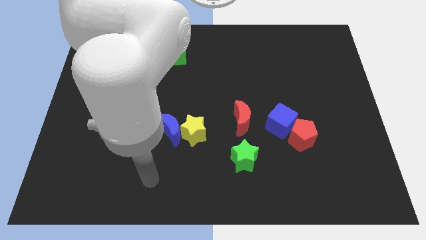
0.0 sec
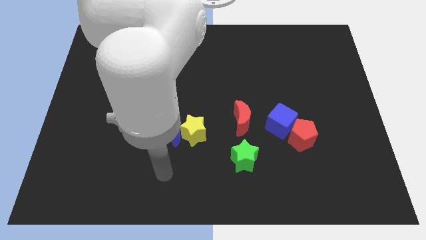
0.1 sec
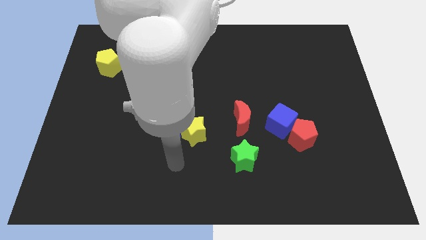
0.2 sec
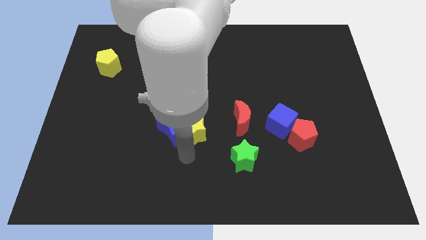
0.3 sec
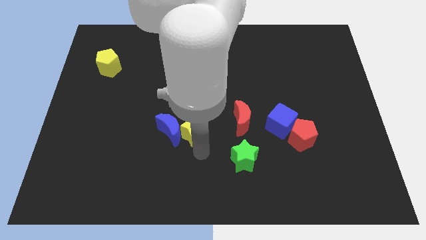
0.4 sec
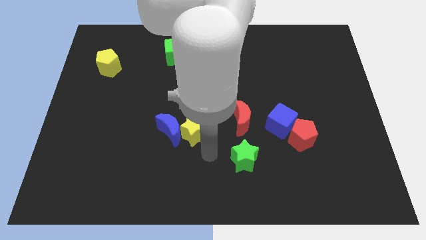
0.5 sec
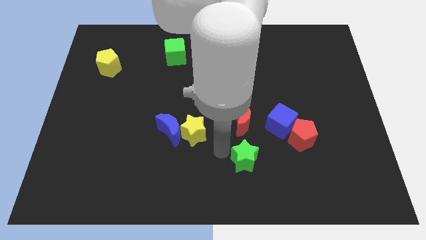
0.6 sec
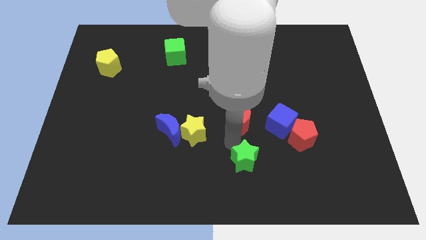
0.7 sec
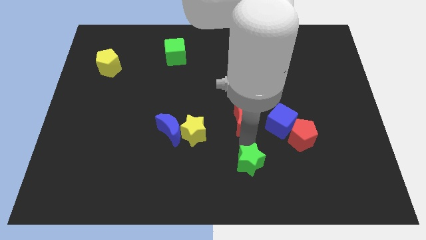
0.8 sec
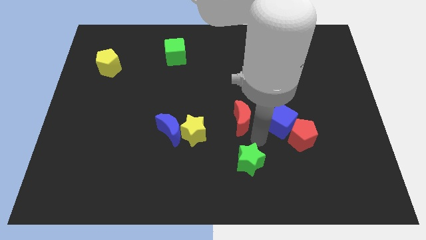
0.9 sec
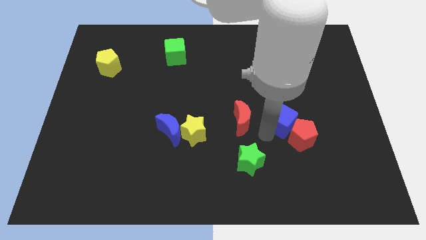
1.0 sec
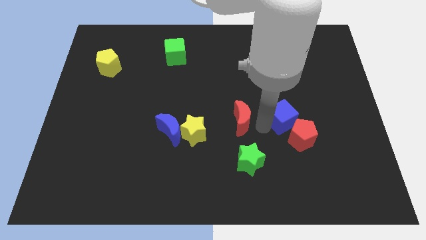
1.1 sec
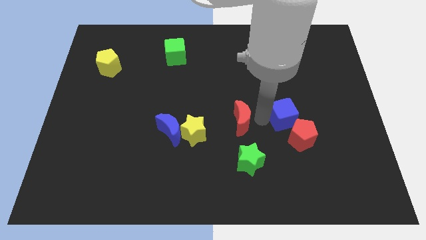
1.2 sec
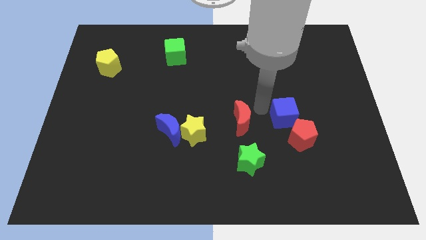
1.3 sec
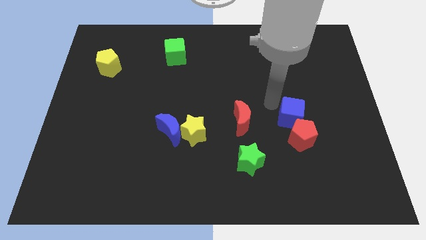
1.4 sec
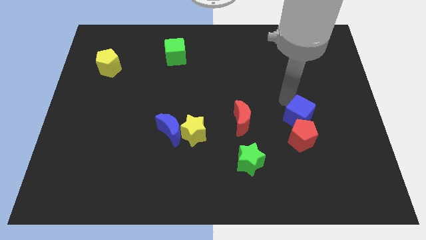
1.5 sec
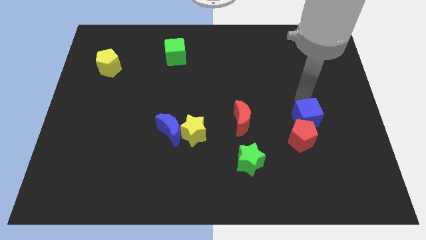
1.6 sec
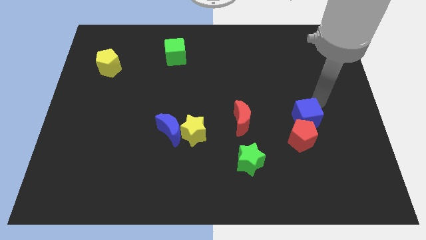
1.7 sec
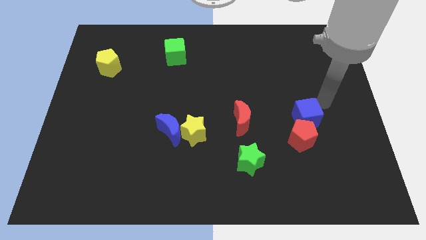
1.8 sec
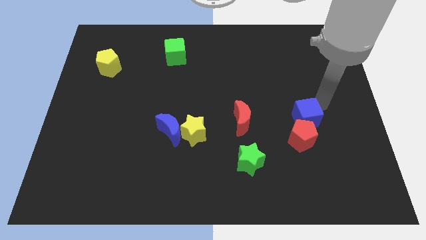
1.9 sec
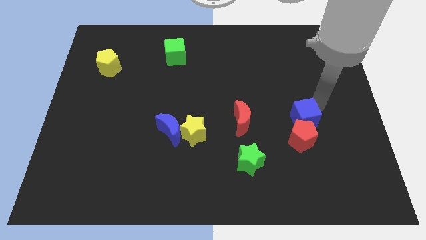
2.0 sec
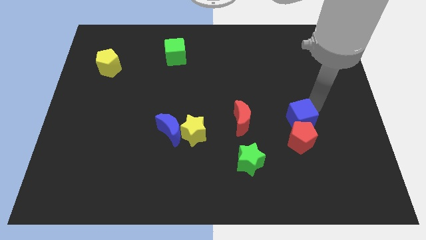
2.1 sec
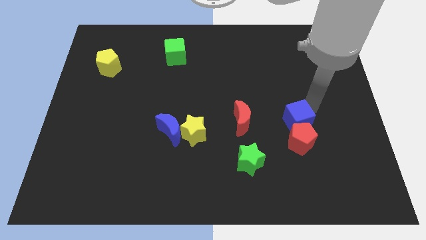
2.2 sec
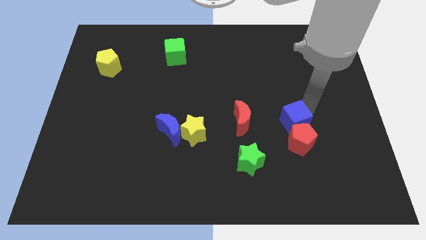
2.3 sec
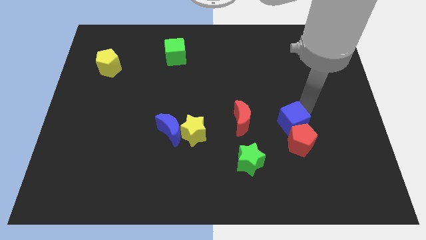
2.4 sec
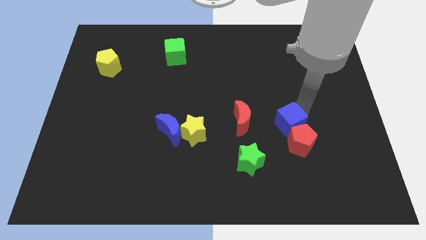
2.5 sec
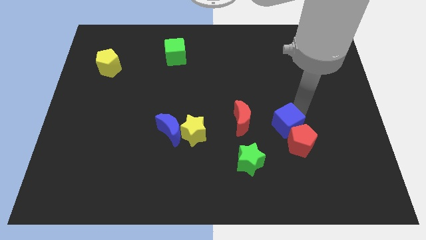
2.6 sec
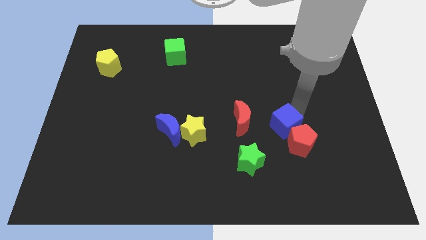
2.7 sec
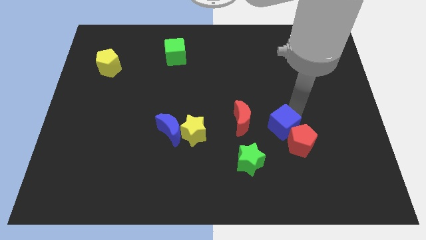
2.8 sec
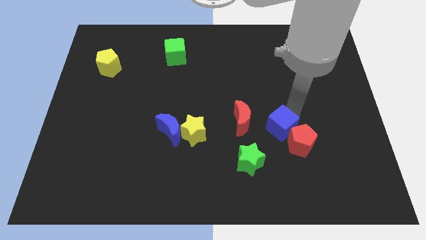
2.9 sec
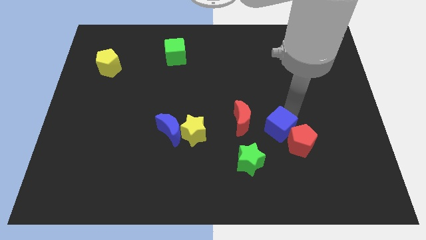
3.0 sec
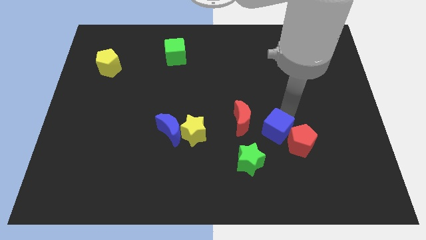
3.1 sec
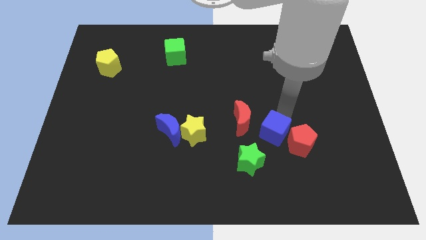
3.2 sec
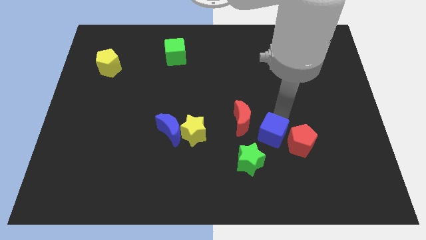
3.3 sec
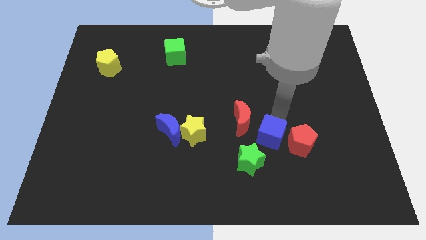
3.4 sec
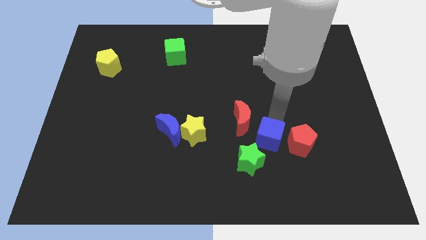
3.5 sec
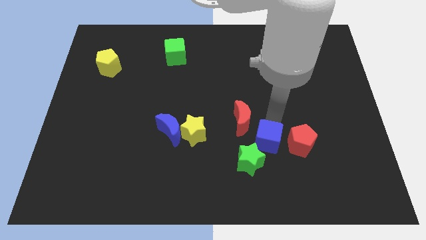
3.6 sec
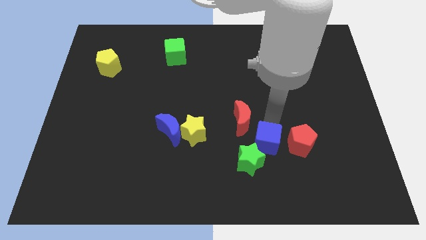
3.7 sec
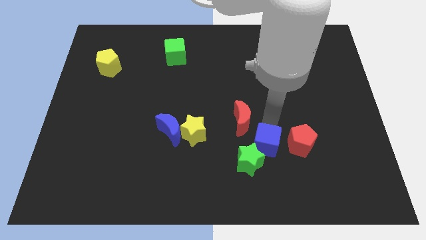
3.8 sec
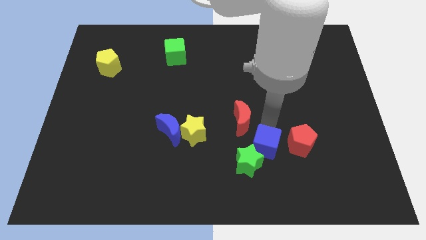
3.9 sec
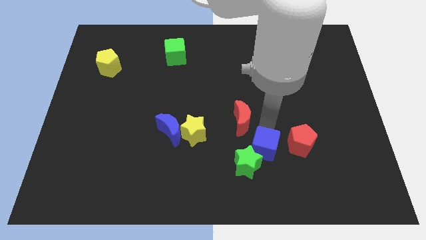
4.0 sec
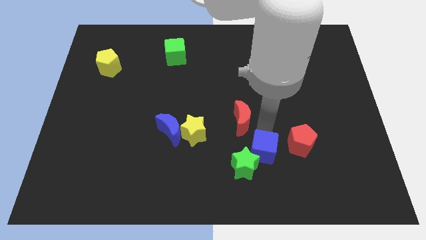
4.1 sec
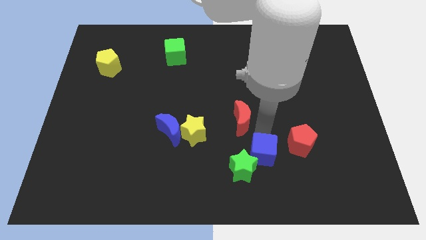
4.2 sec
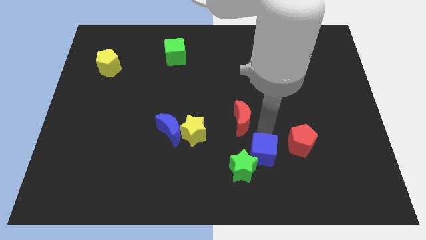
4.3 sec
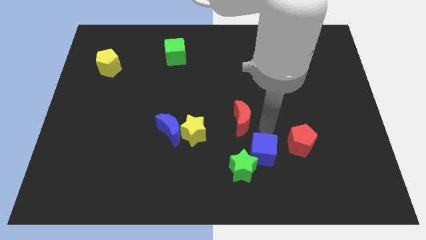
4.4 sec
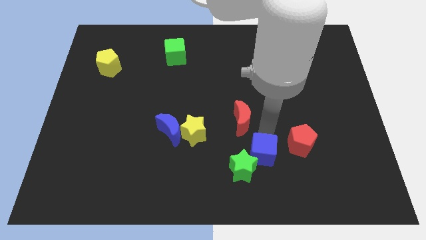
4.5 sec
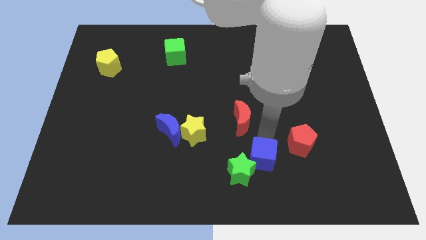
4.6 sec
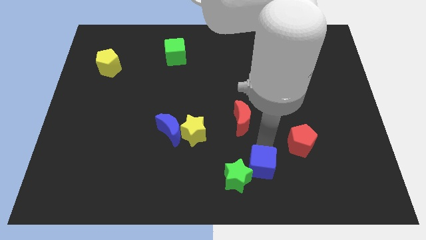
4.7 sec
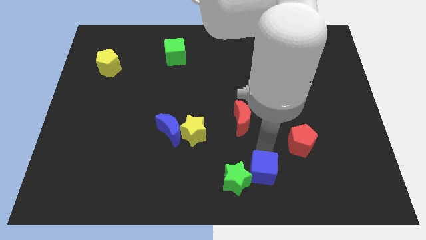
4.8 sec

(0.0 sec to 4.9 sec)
move the blue cube to the bottom side

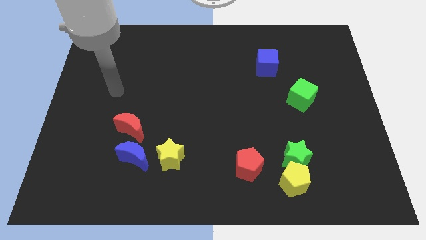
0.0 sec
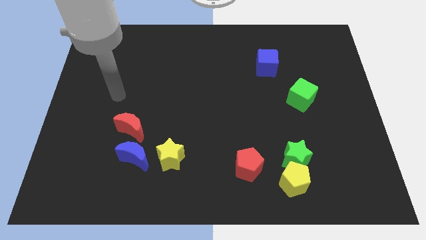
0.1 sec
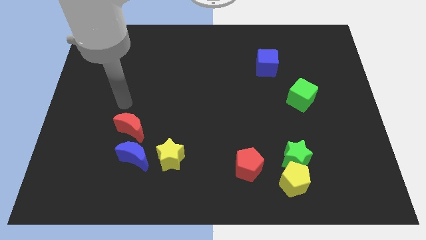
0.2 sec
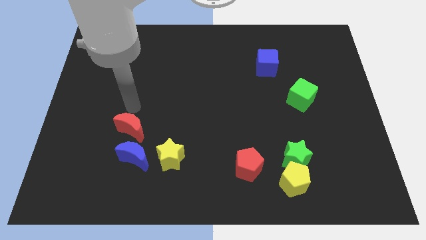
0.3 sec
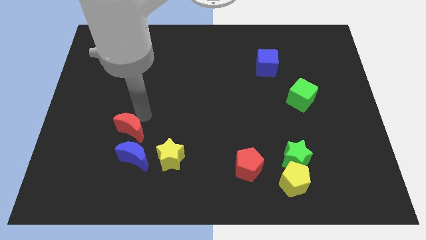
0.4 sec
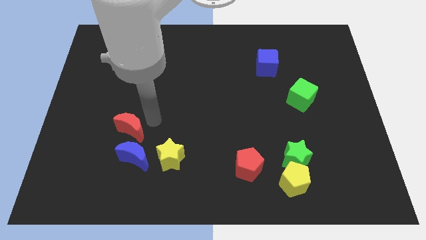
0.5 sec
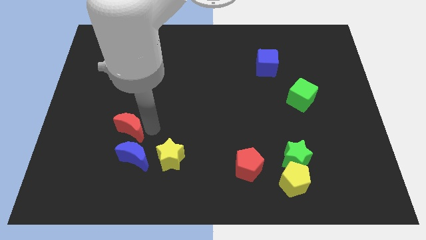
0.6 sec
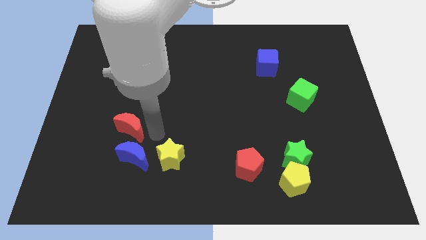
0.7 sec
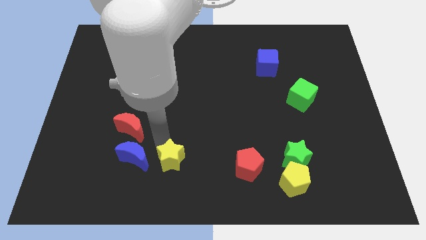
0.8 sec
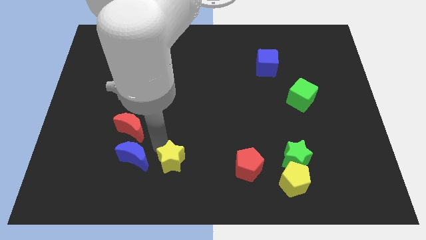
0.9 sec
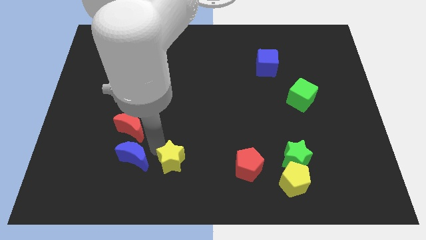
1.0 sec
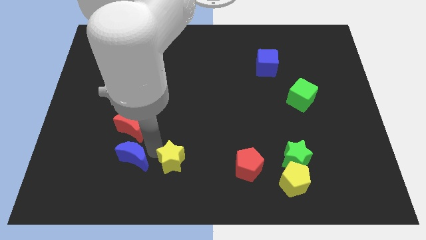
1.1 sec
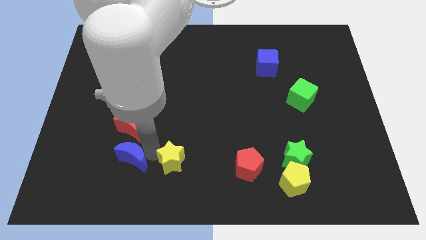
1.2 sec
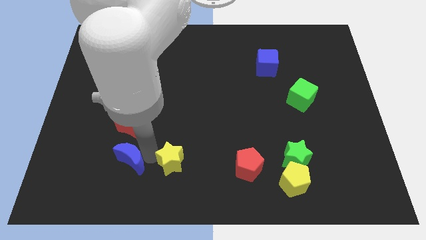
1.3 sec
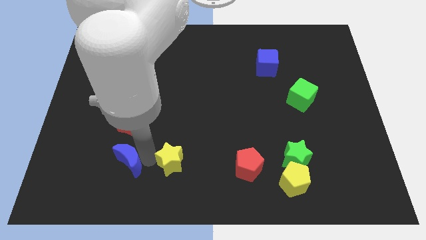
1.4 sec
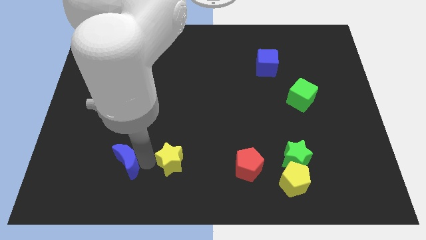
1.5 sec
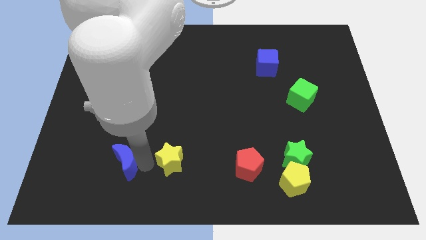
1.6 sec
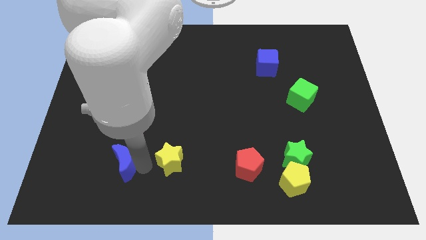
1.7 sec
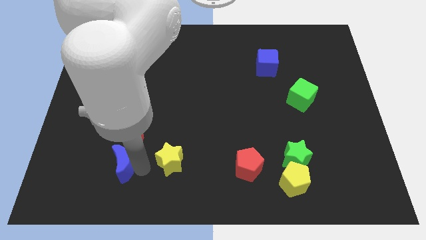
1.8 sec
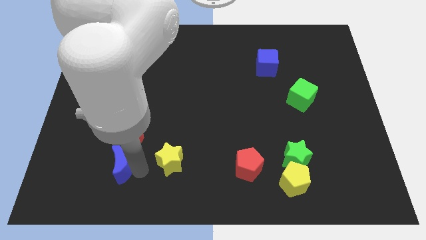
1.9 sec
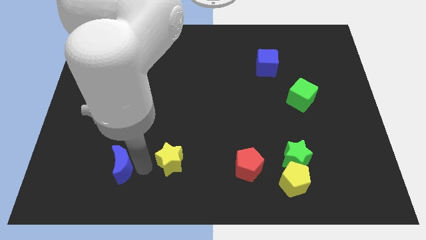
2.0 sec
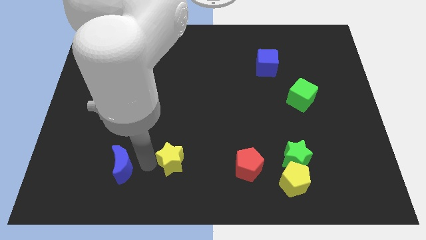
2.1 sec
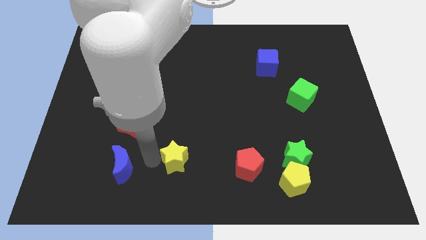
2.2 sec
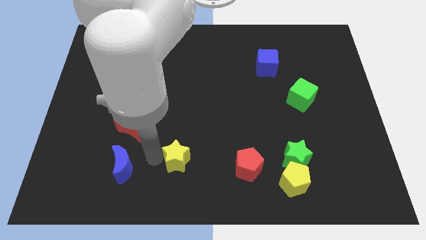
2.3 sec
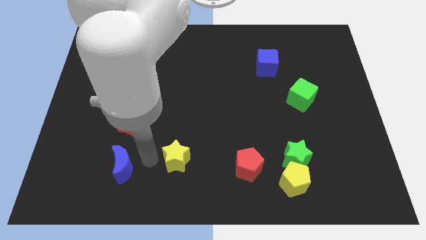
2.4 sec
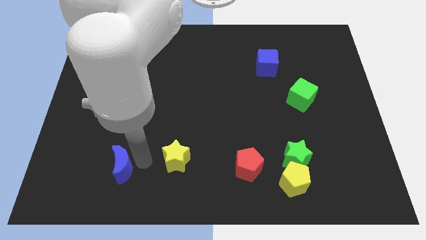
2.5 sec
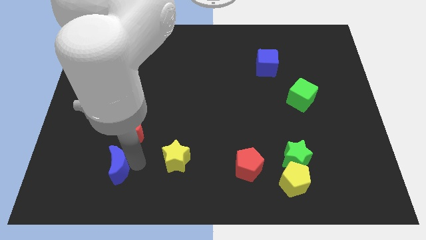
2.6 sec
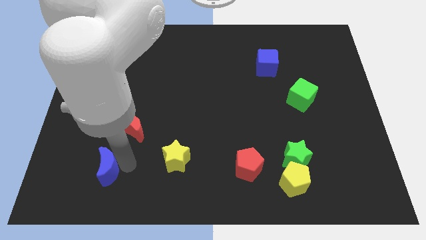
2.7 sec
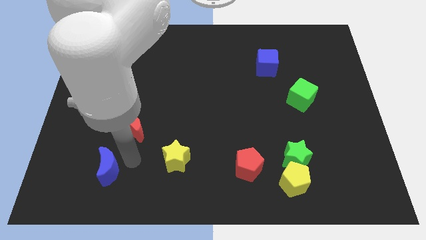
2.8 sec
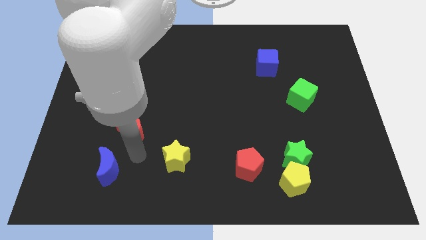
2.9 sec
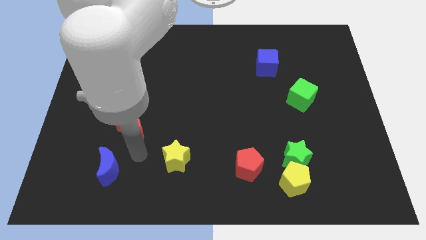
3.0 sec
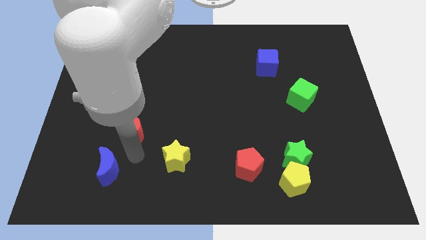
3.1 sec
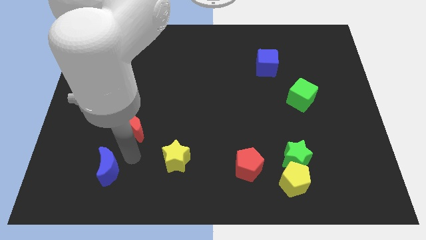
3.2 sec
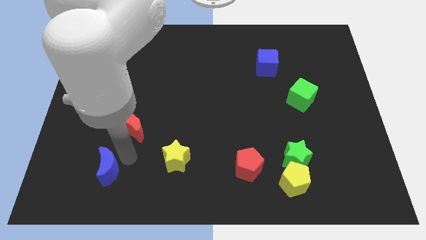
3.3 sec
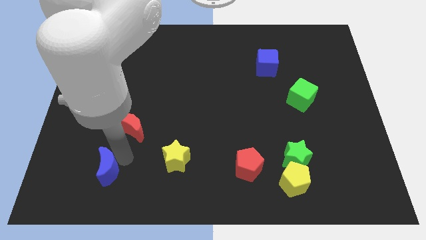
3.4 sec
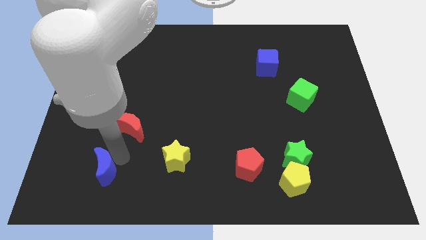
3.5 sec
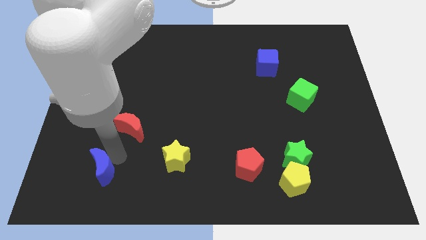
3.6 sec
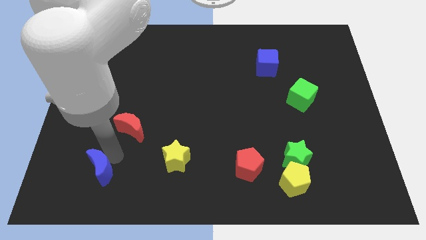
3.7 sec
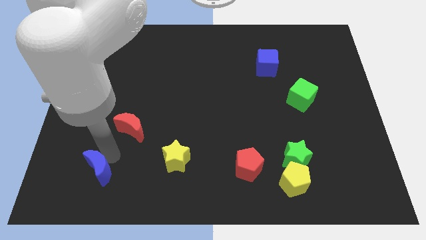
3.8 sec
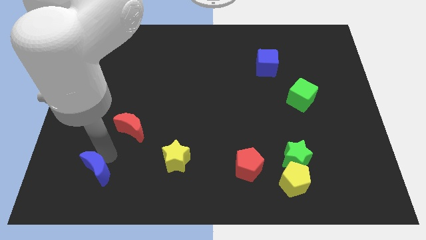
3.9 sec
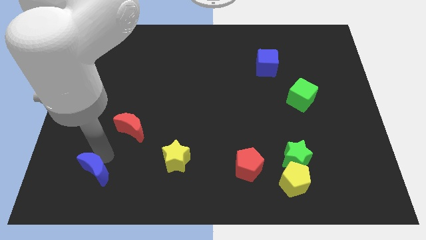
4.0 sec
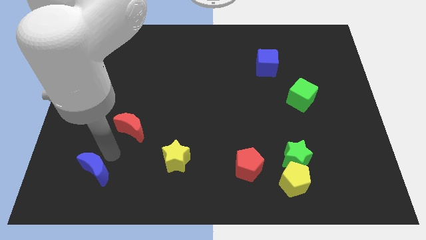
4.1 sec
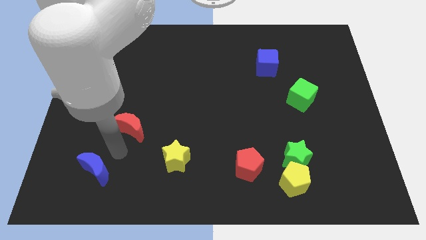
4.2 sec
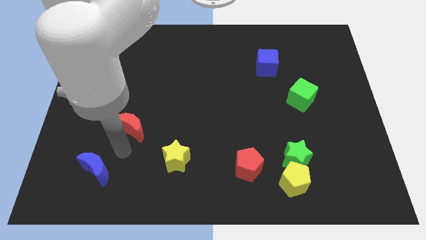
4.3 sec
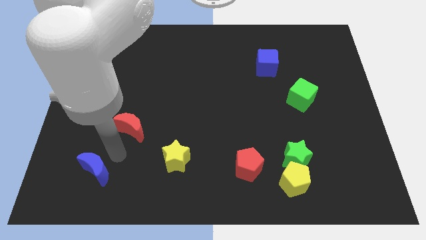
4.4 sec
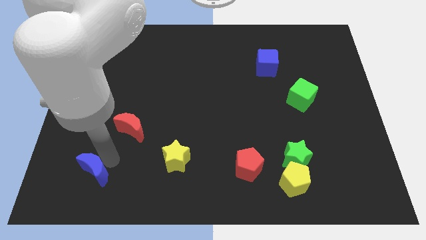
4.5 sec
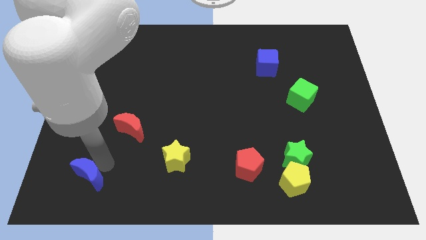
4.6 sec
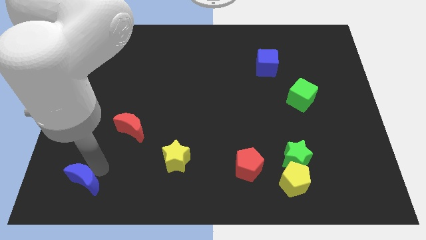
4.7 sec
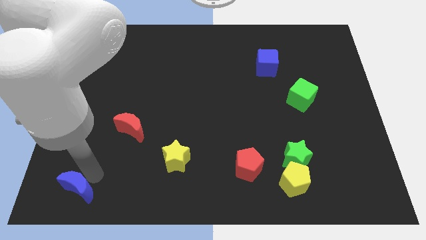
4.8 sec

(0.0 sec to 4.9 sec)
push the blue moon to the bottom left of the board
